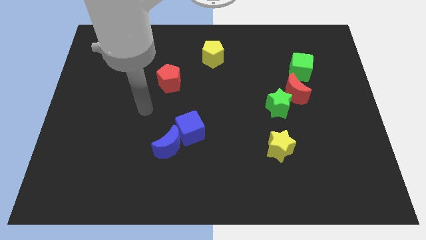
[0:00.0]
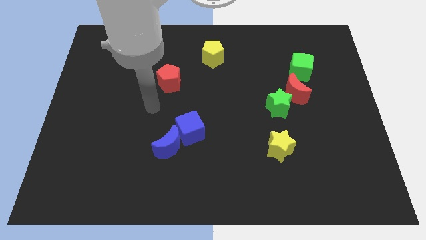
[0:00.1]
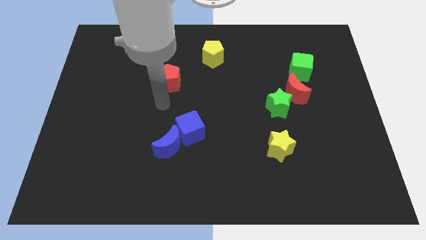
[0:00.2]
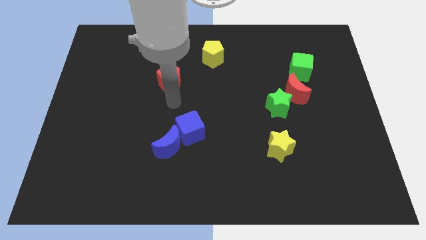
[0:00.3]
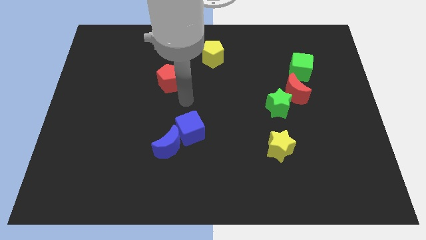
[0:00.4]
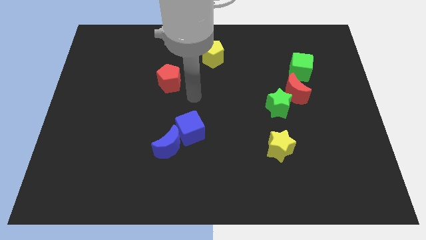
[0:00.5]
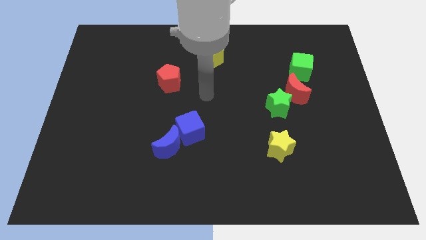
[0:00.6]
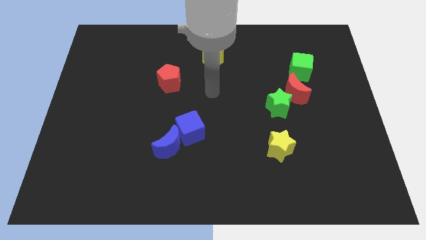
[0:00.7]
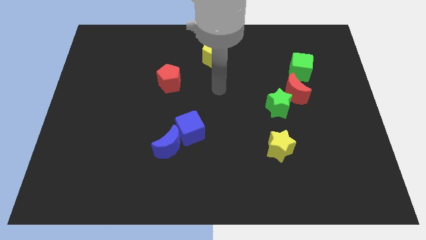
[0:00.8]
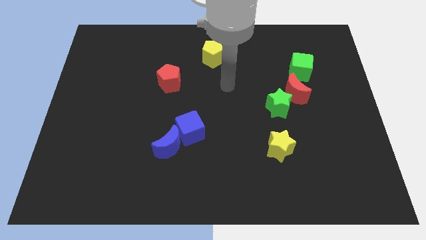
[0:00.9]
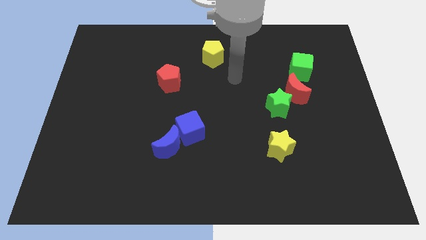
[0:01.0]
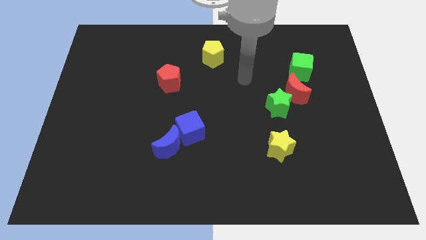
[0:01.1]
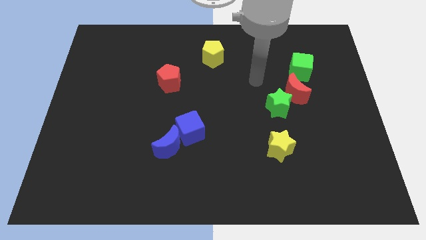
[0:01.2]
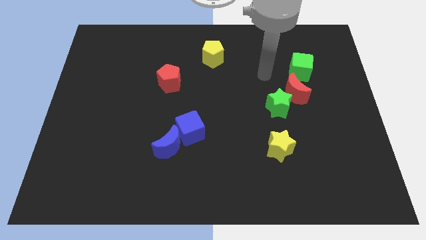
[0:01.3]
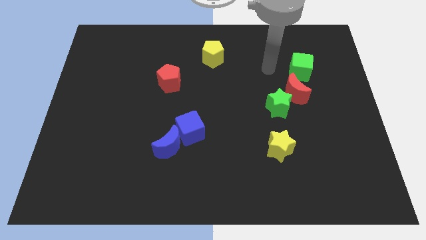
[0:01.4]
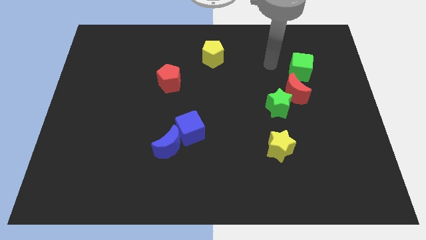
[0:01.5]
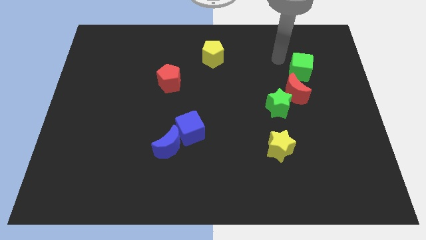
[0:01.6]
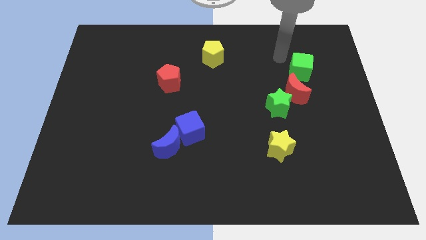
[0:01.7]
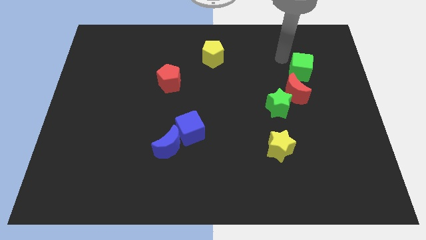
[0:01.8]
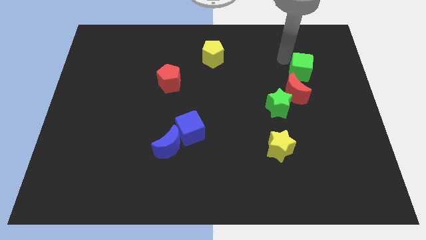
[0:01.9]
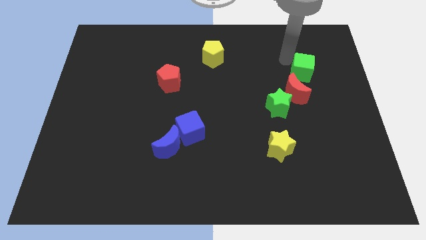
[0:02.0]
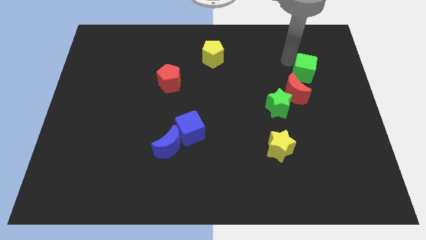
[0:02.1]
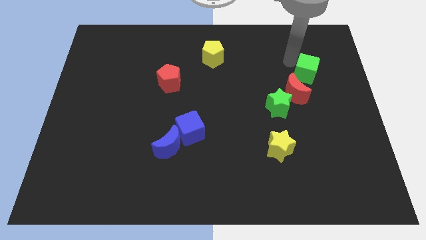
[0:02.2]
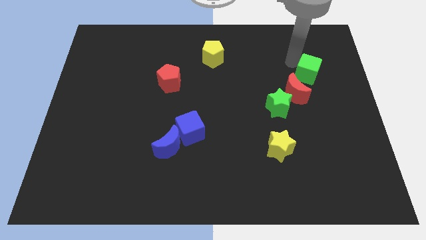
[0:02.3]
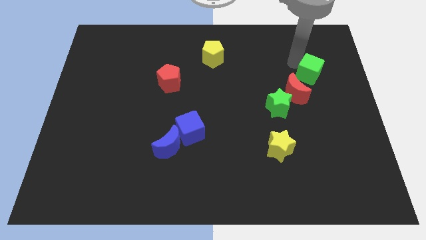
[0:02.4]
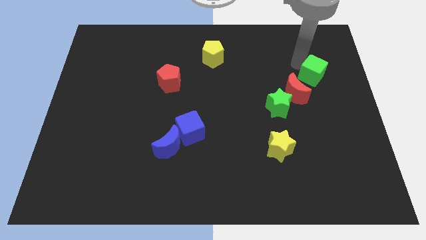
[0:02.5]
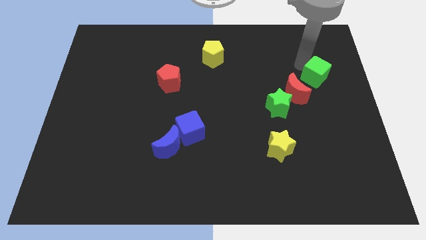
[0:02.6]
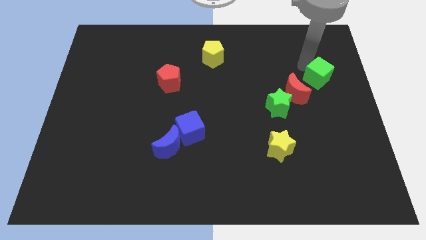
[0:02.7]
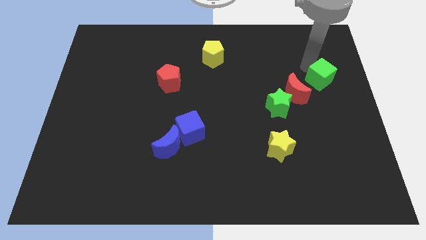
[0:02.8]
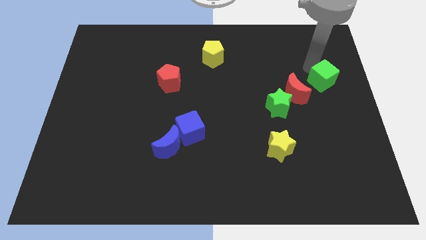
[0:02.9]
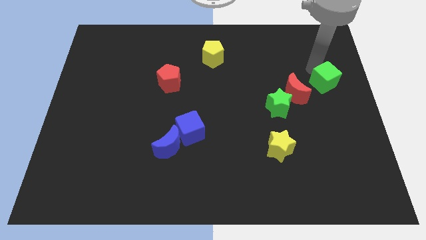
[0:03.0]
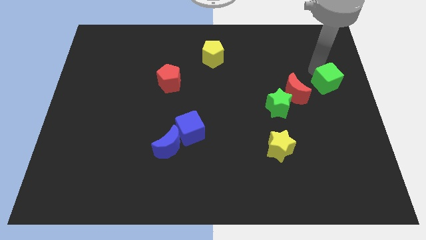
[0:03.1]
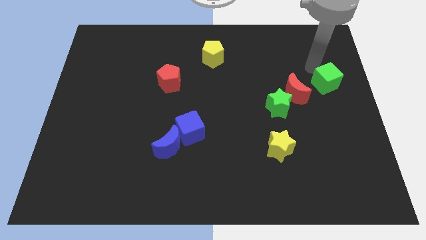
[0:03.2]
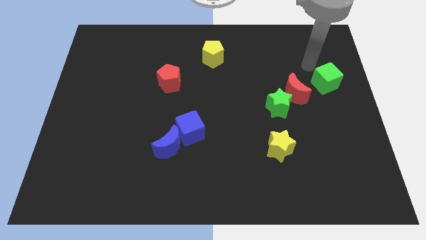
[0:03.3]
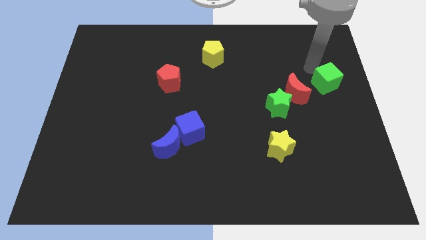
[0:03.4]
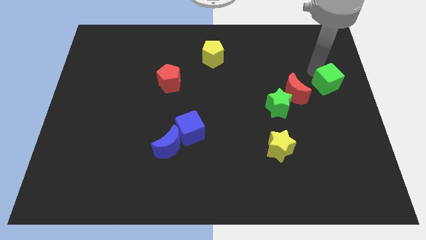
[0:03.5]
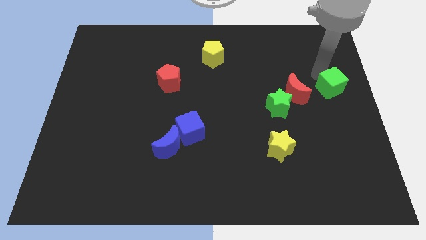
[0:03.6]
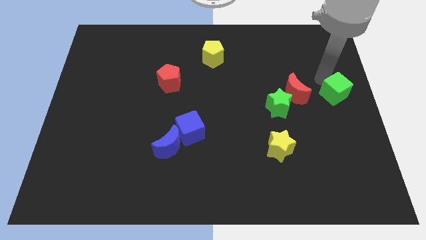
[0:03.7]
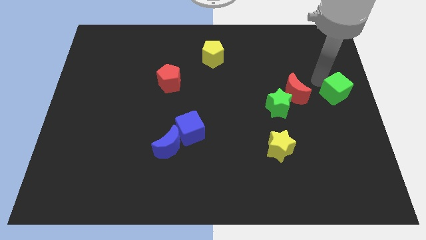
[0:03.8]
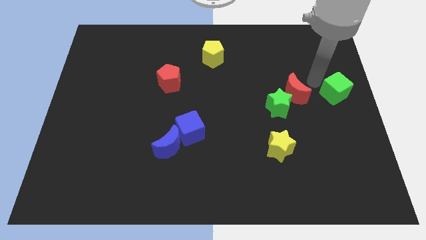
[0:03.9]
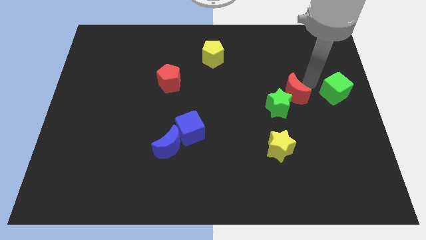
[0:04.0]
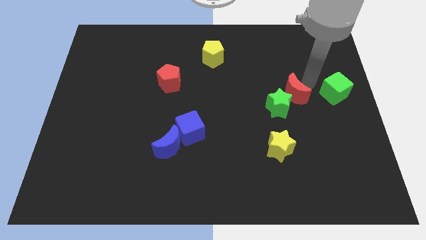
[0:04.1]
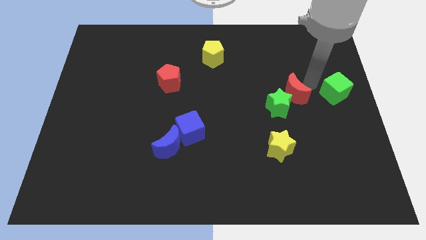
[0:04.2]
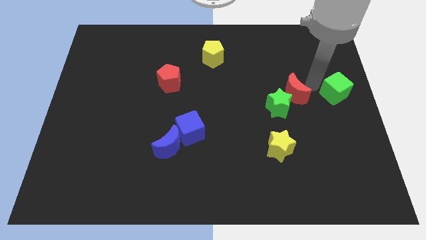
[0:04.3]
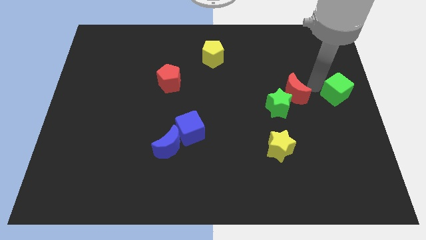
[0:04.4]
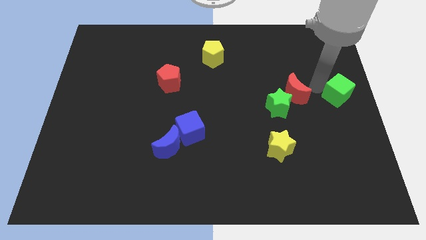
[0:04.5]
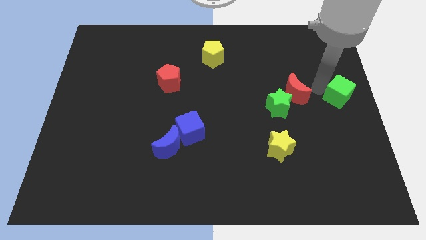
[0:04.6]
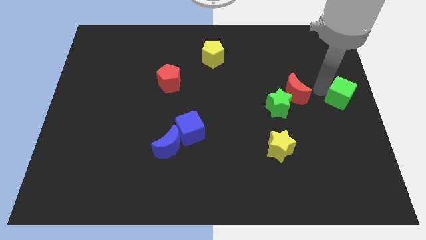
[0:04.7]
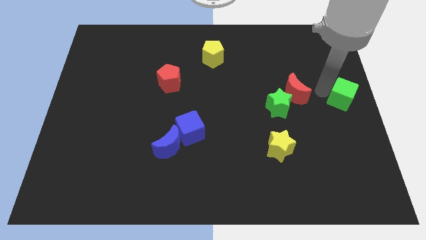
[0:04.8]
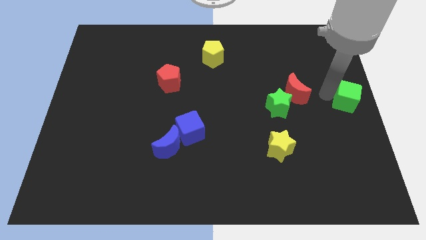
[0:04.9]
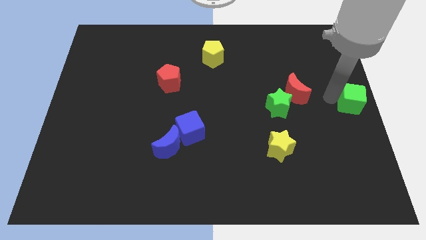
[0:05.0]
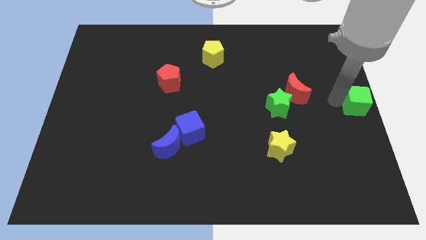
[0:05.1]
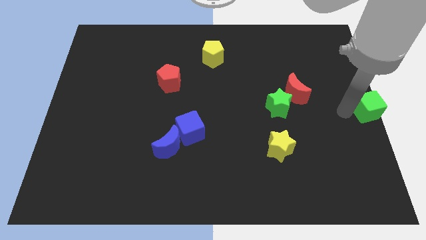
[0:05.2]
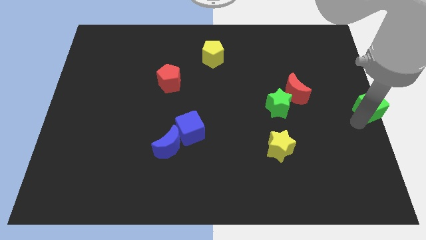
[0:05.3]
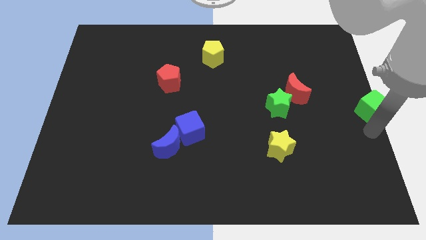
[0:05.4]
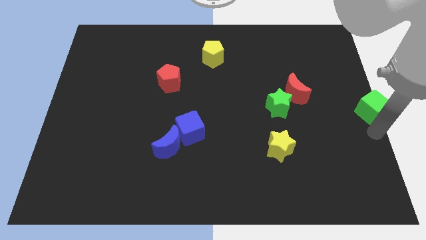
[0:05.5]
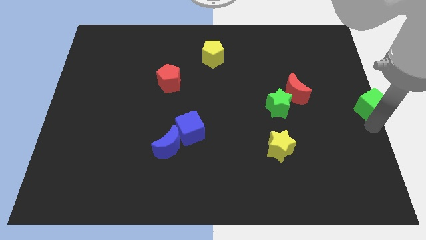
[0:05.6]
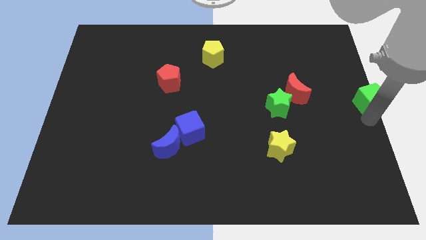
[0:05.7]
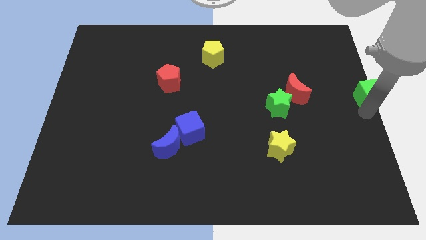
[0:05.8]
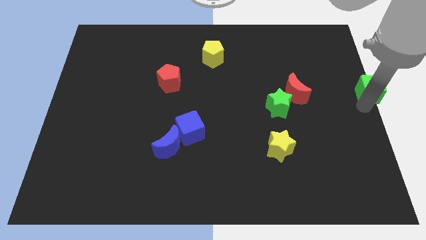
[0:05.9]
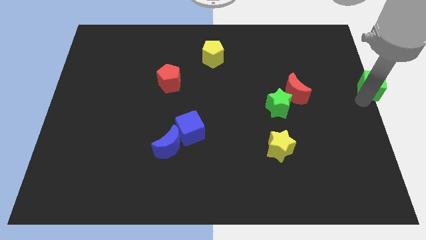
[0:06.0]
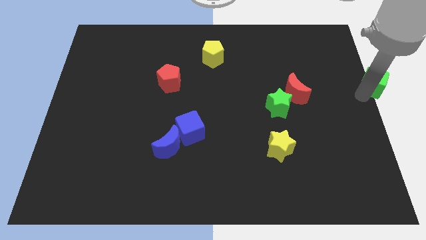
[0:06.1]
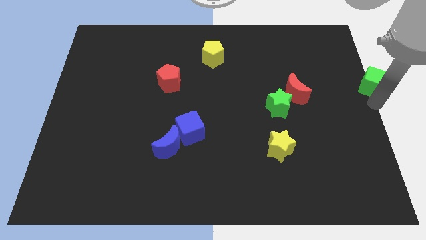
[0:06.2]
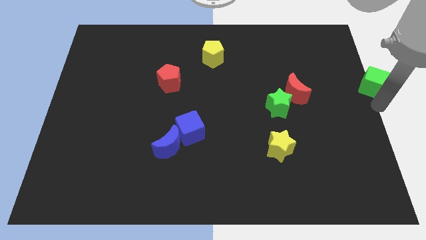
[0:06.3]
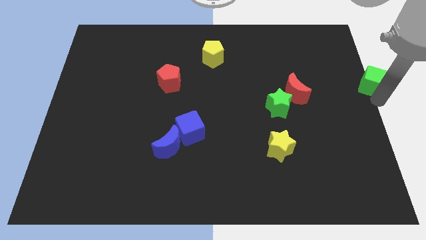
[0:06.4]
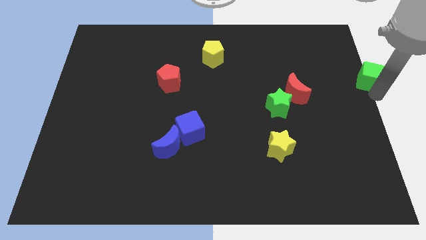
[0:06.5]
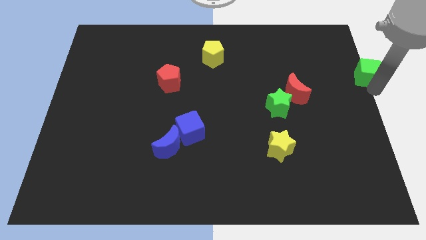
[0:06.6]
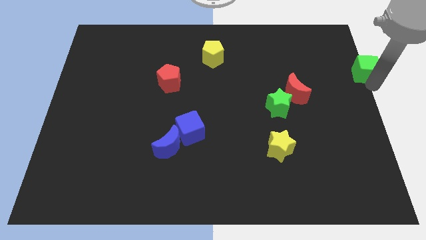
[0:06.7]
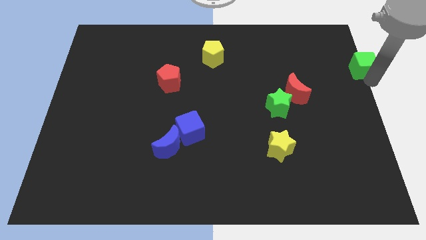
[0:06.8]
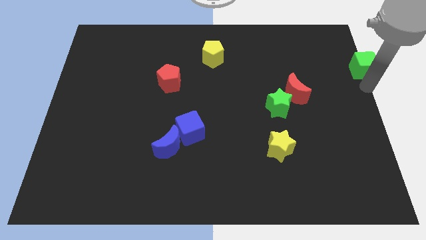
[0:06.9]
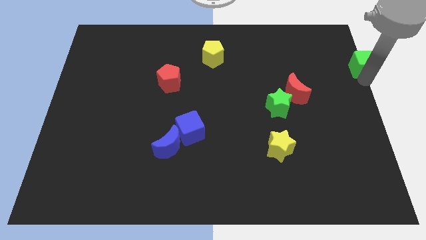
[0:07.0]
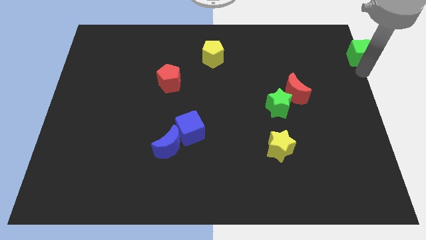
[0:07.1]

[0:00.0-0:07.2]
put the green cube to the top right
